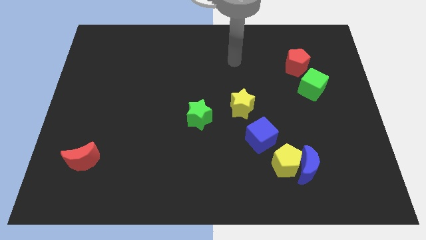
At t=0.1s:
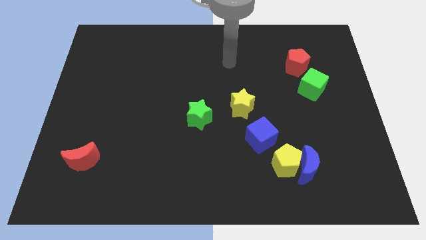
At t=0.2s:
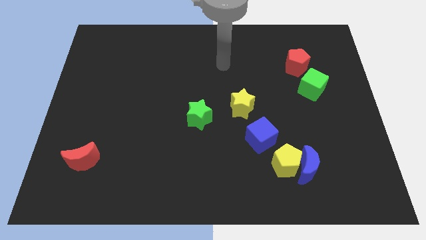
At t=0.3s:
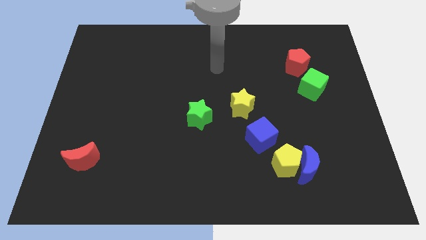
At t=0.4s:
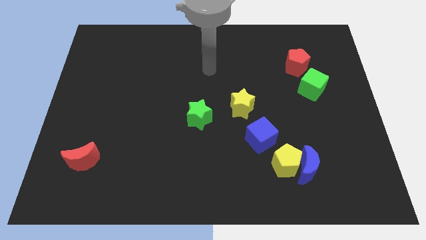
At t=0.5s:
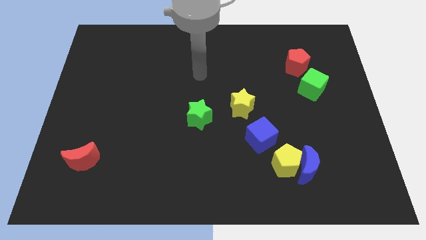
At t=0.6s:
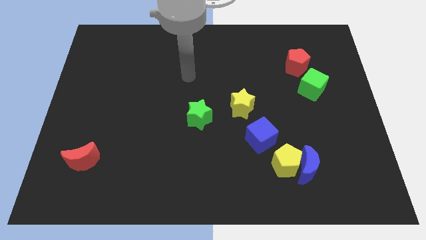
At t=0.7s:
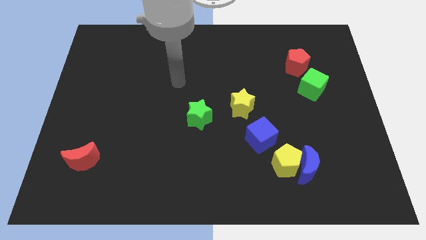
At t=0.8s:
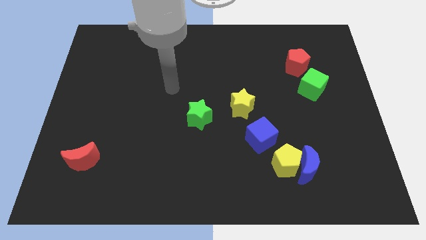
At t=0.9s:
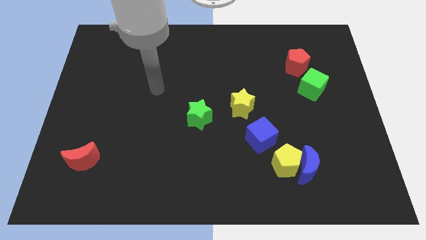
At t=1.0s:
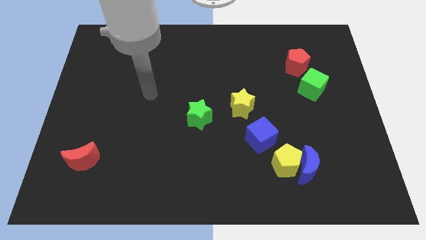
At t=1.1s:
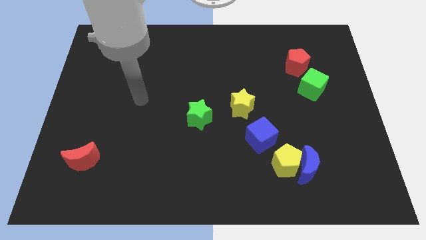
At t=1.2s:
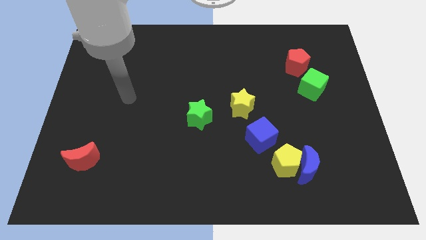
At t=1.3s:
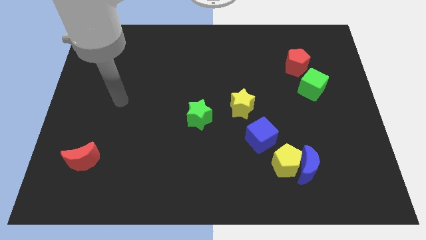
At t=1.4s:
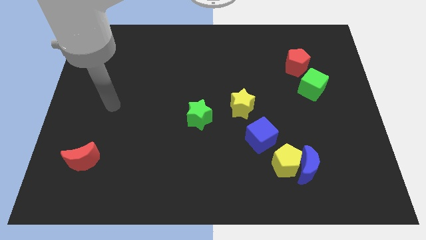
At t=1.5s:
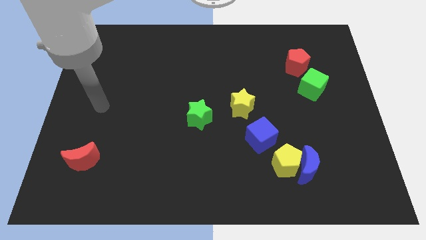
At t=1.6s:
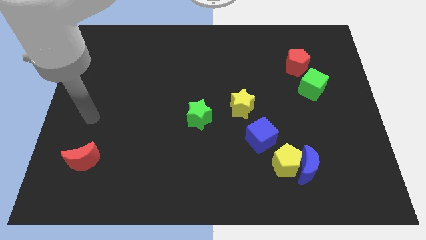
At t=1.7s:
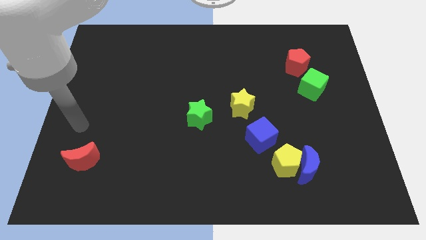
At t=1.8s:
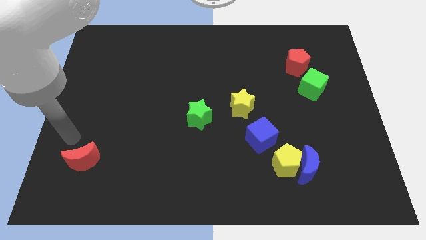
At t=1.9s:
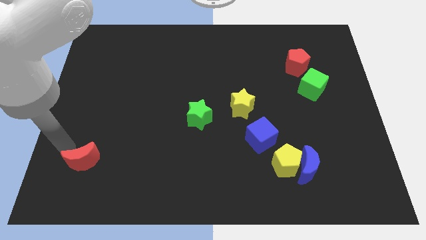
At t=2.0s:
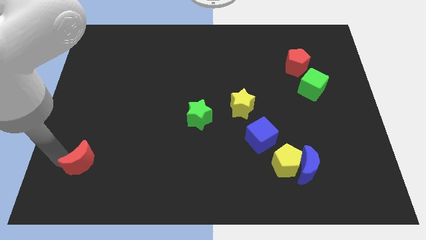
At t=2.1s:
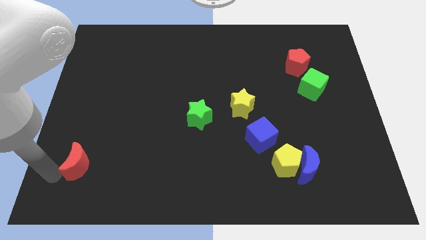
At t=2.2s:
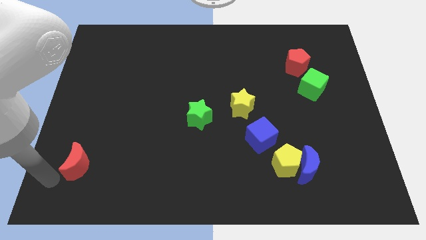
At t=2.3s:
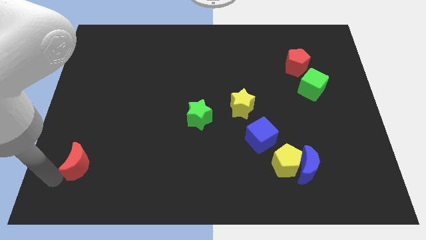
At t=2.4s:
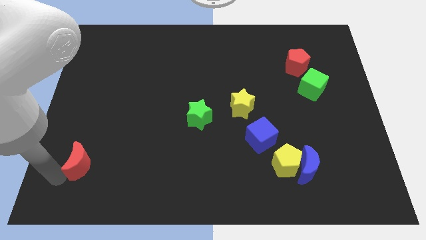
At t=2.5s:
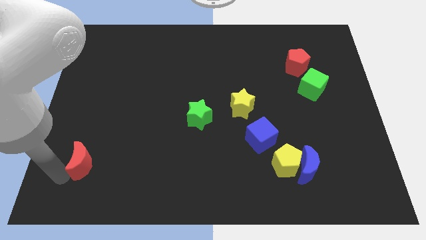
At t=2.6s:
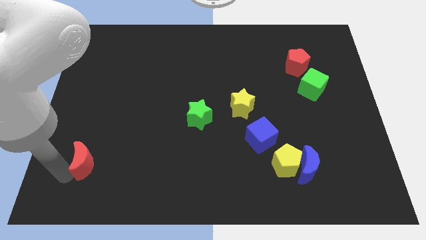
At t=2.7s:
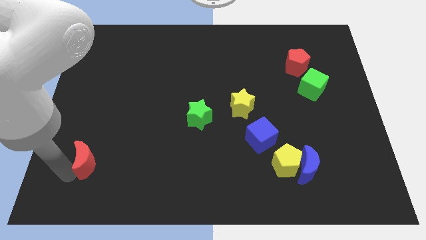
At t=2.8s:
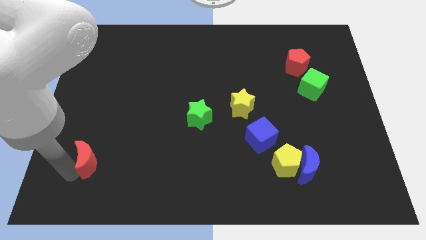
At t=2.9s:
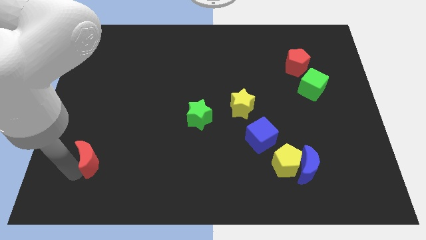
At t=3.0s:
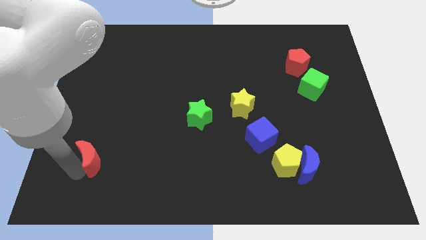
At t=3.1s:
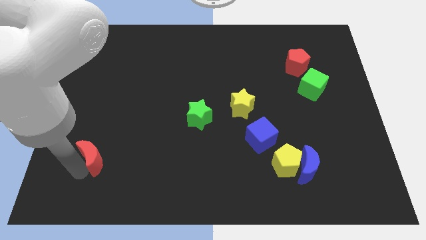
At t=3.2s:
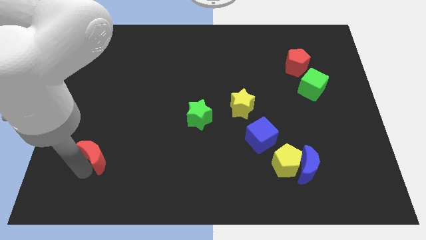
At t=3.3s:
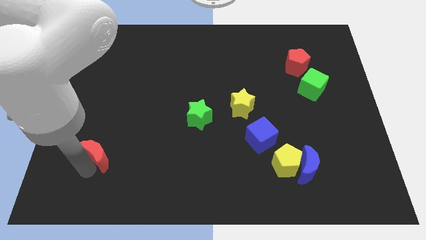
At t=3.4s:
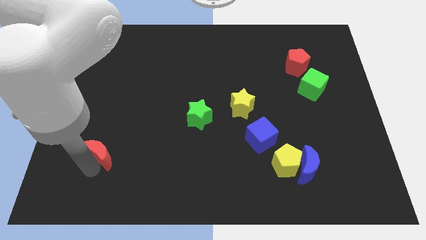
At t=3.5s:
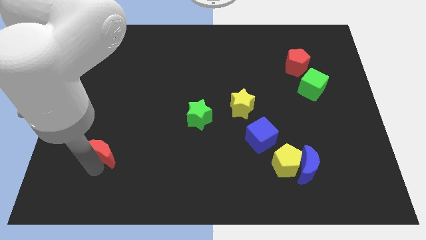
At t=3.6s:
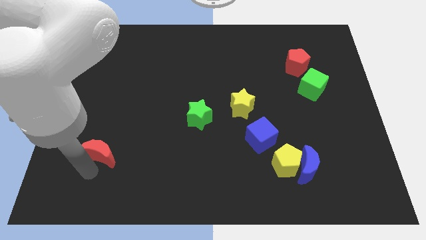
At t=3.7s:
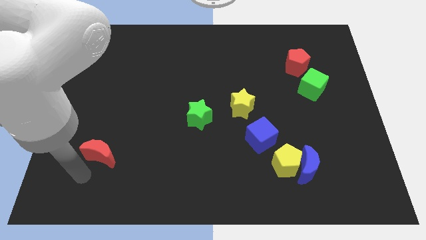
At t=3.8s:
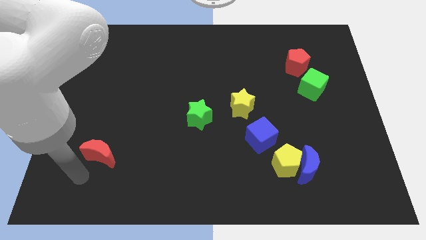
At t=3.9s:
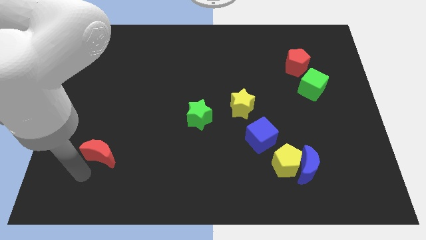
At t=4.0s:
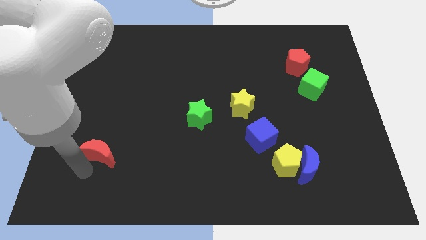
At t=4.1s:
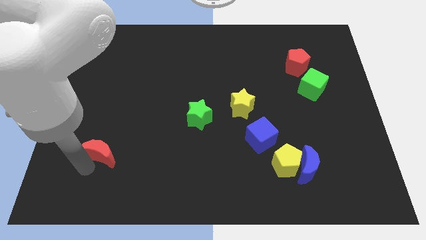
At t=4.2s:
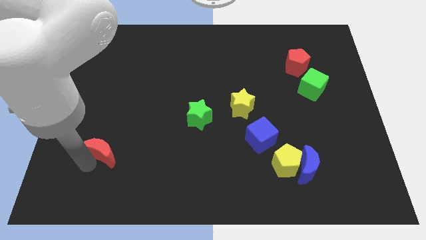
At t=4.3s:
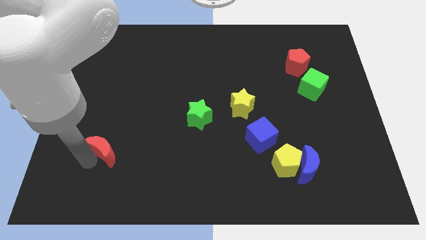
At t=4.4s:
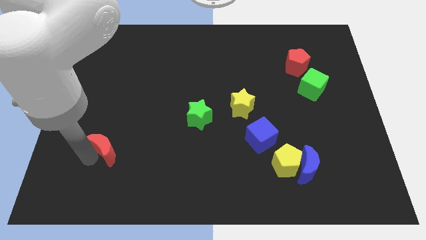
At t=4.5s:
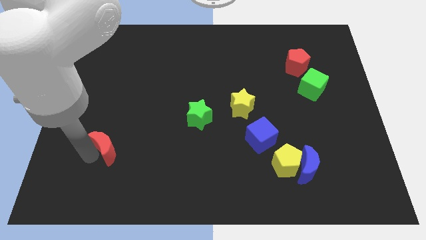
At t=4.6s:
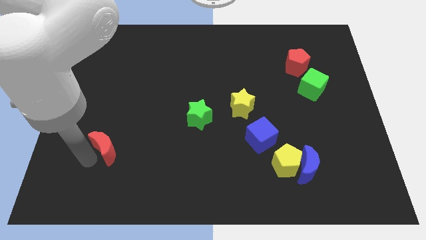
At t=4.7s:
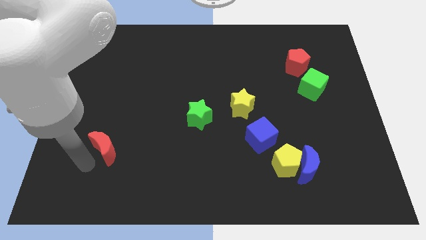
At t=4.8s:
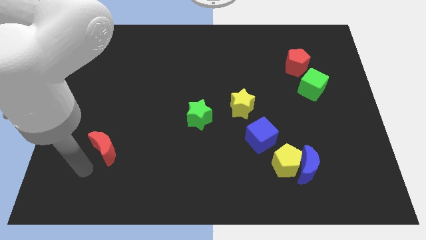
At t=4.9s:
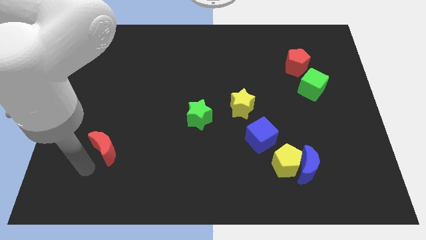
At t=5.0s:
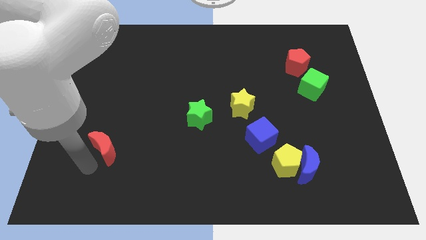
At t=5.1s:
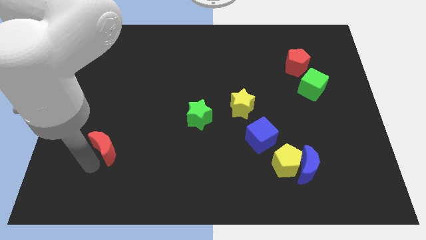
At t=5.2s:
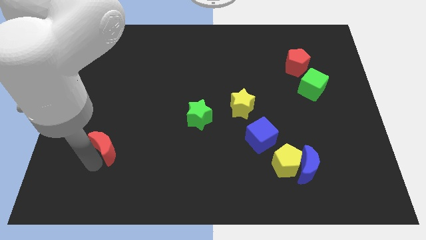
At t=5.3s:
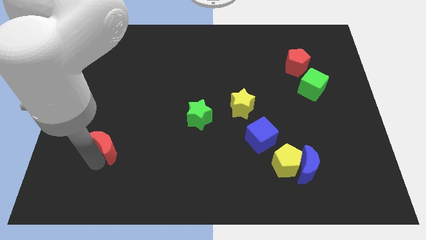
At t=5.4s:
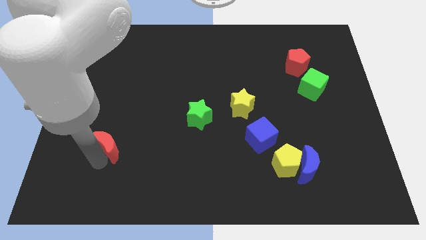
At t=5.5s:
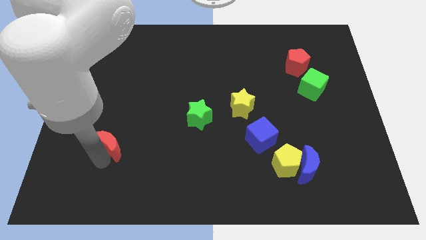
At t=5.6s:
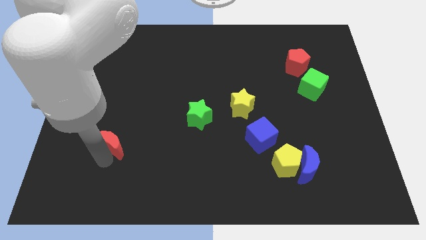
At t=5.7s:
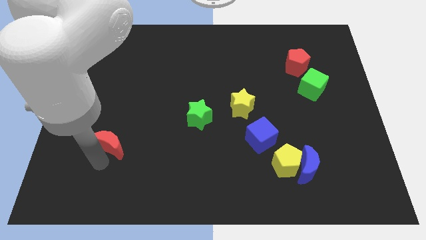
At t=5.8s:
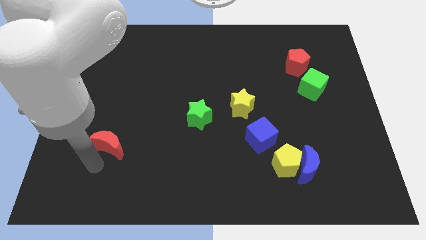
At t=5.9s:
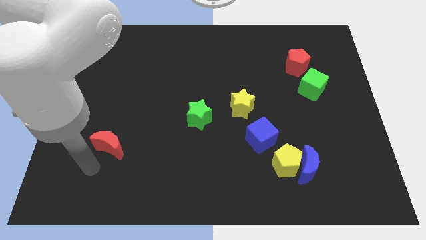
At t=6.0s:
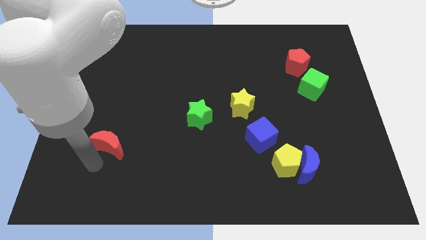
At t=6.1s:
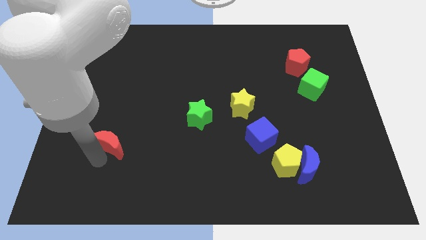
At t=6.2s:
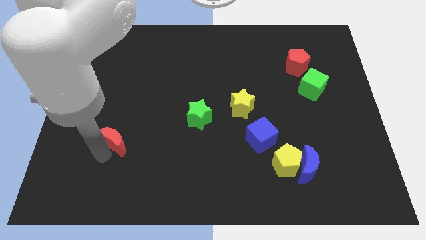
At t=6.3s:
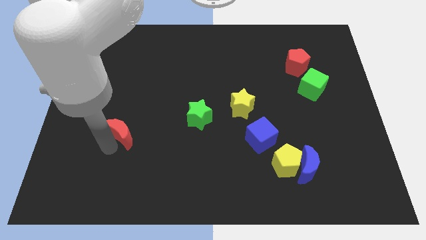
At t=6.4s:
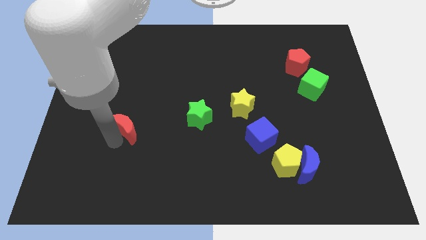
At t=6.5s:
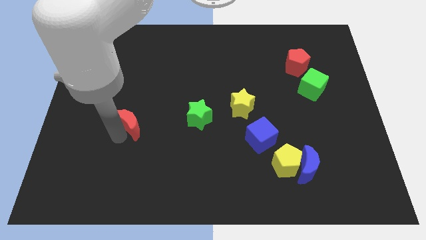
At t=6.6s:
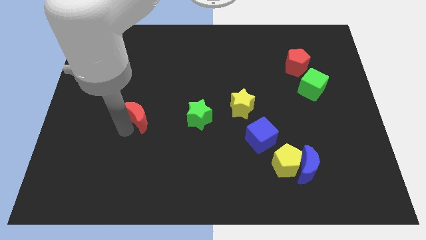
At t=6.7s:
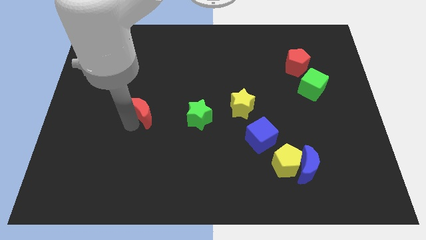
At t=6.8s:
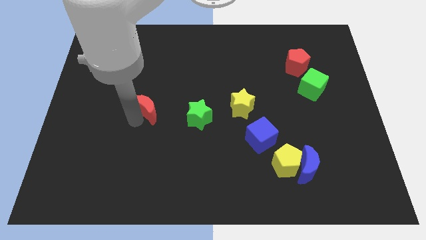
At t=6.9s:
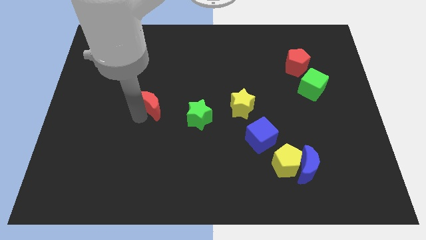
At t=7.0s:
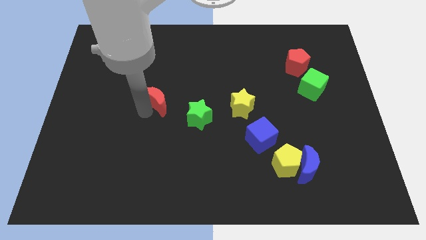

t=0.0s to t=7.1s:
push the red moon diagonally up and right

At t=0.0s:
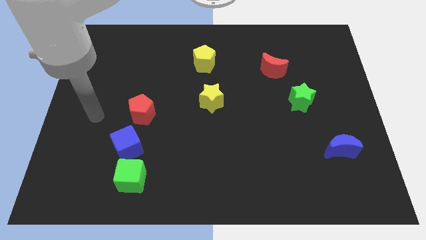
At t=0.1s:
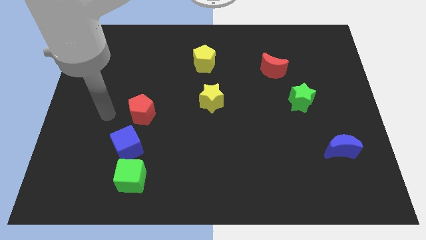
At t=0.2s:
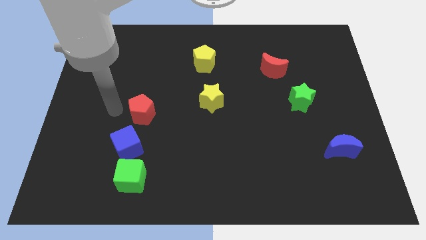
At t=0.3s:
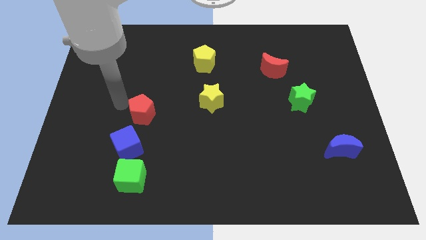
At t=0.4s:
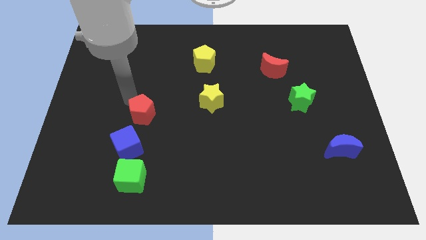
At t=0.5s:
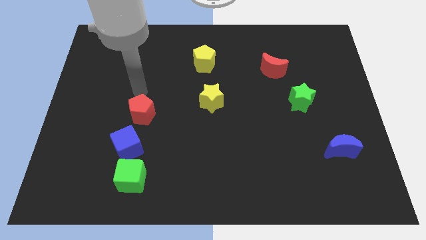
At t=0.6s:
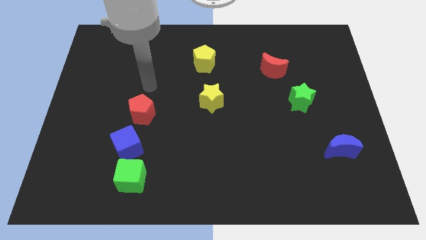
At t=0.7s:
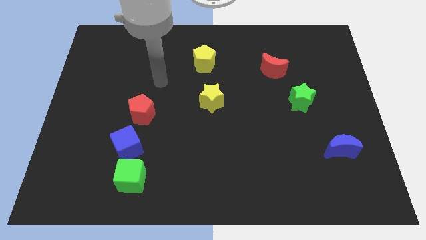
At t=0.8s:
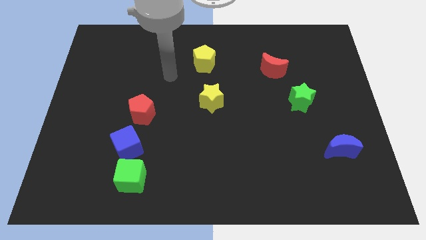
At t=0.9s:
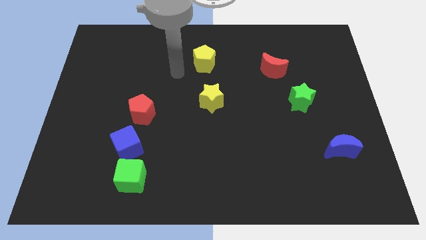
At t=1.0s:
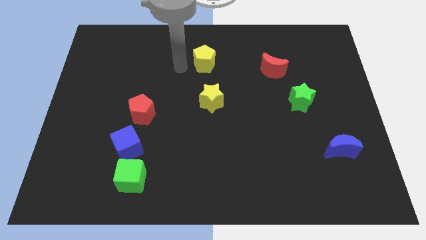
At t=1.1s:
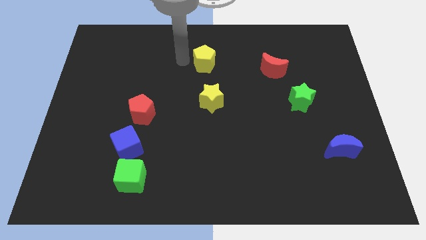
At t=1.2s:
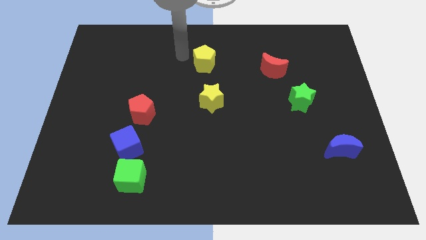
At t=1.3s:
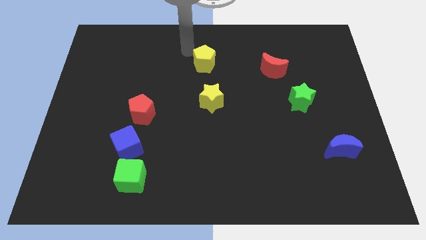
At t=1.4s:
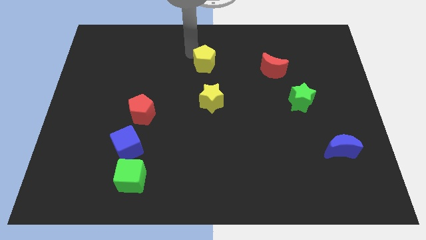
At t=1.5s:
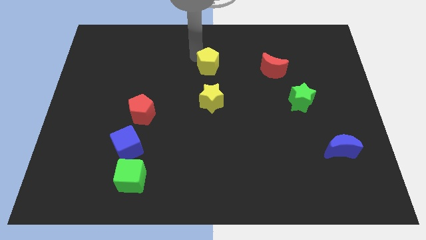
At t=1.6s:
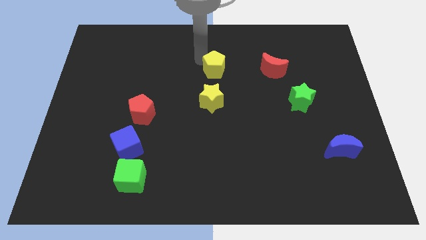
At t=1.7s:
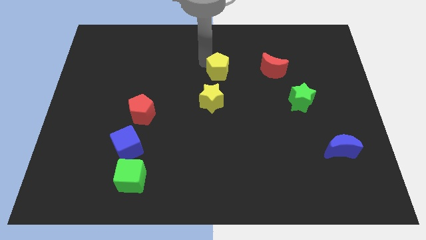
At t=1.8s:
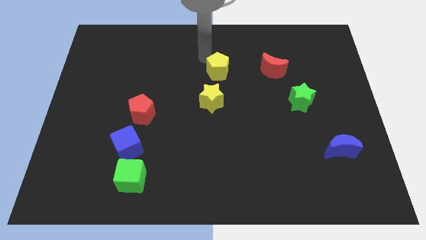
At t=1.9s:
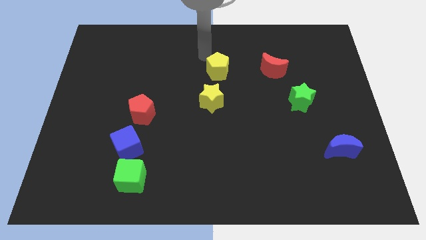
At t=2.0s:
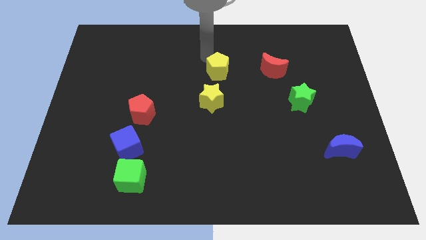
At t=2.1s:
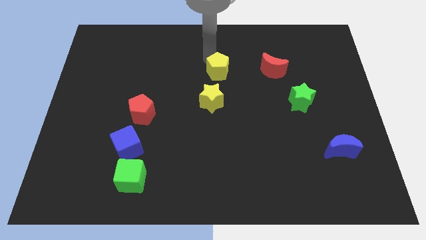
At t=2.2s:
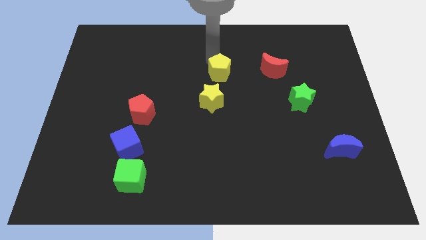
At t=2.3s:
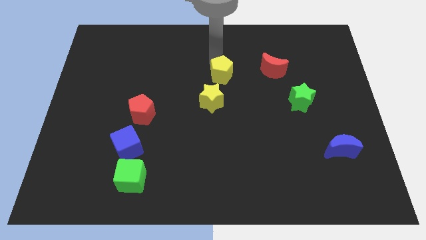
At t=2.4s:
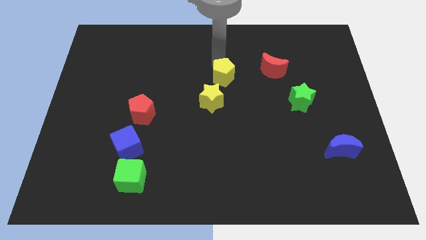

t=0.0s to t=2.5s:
slightly move the yellow pentagon downwards and right diagonally
